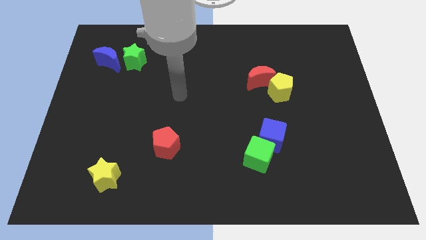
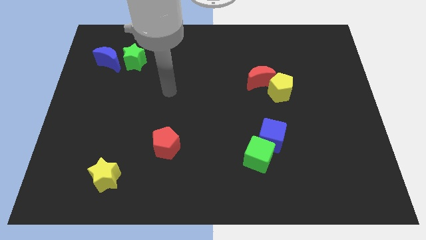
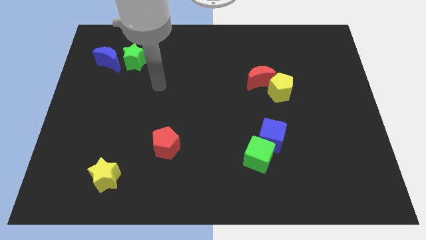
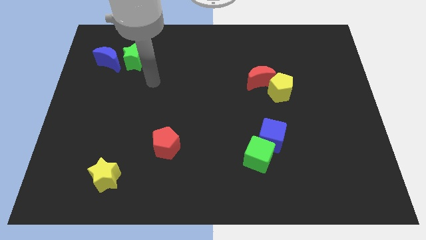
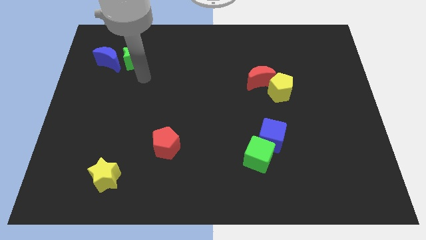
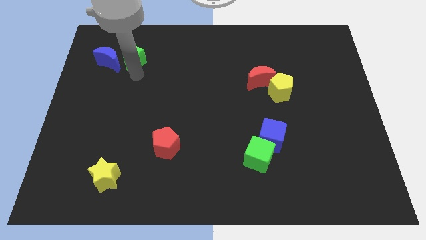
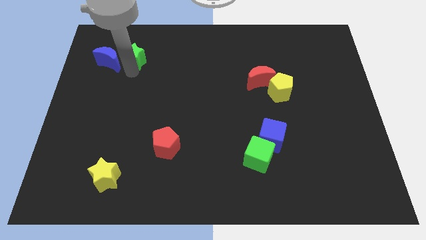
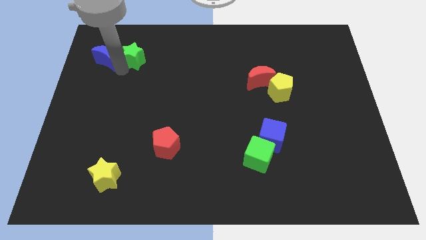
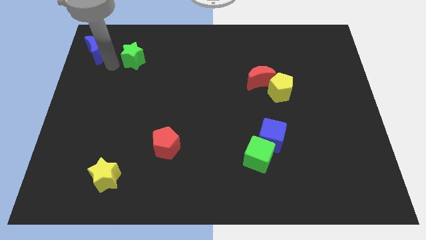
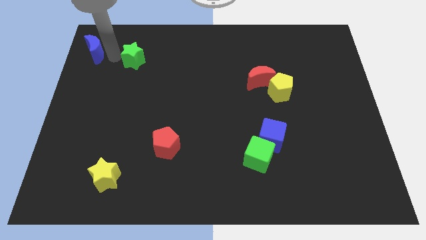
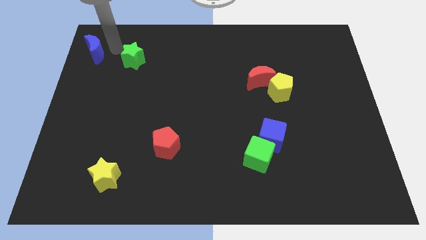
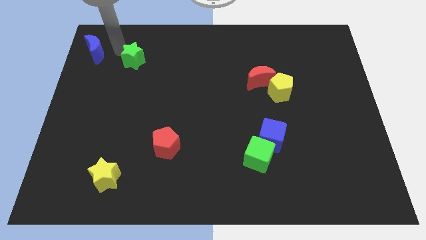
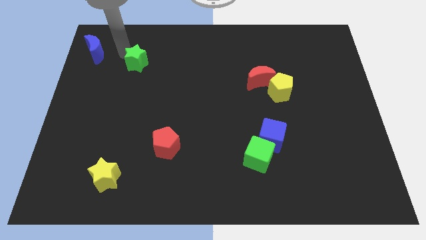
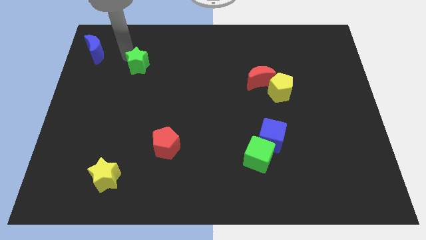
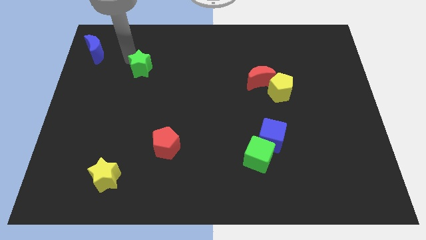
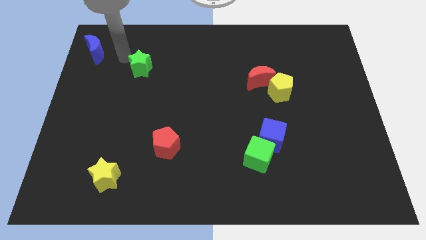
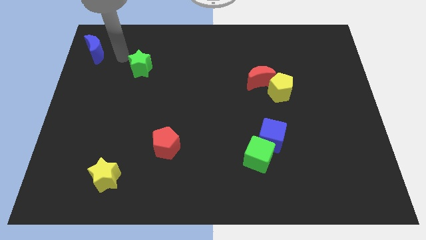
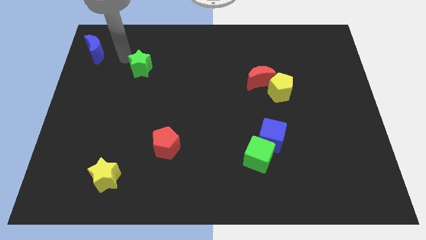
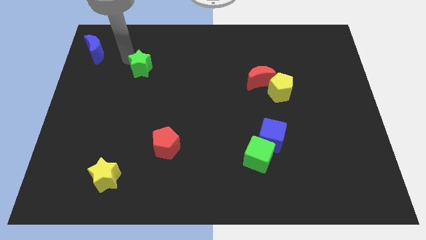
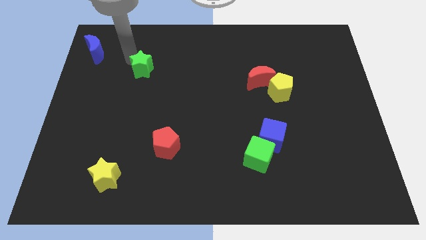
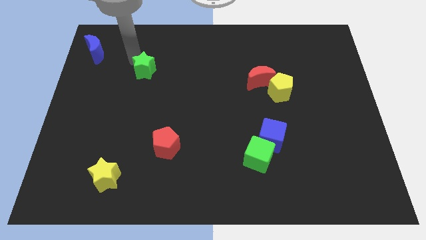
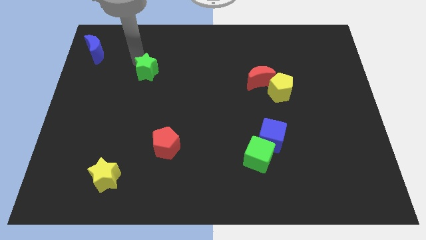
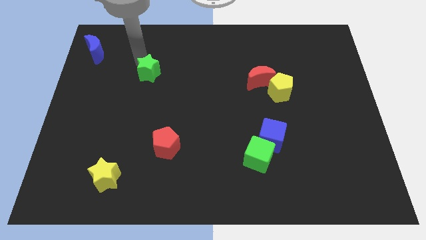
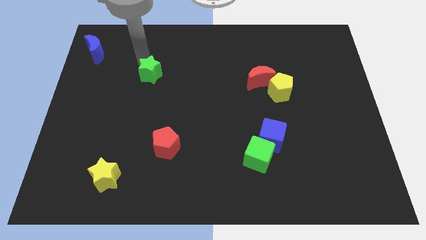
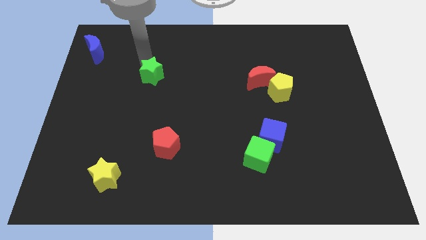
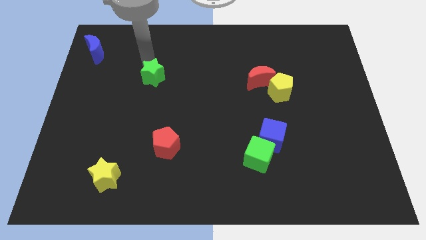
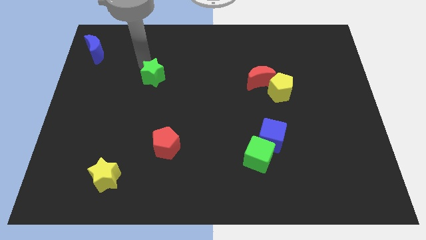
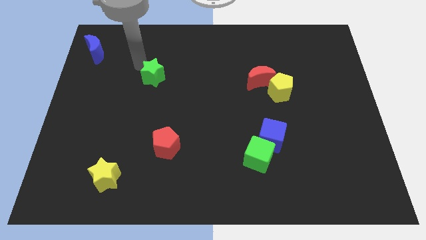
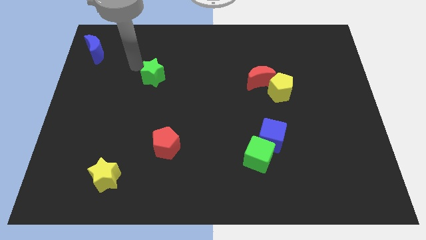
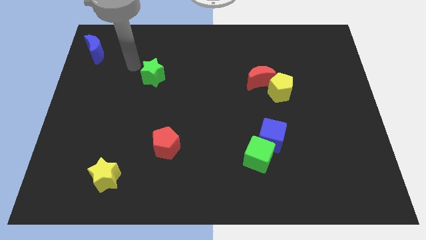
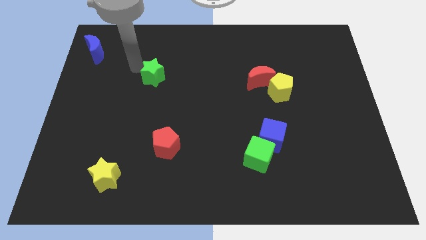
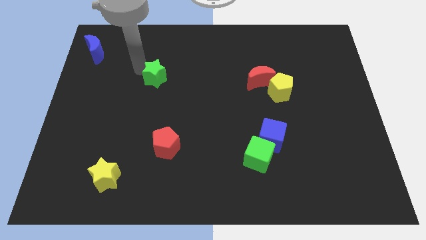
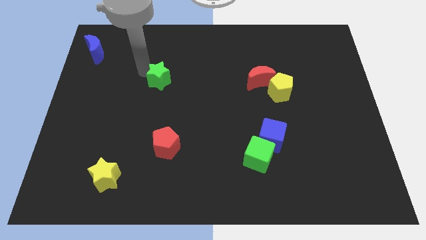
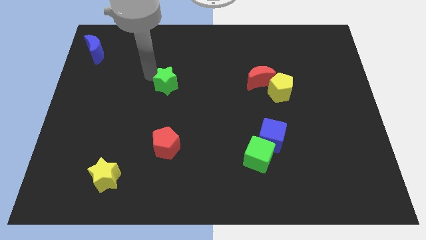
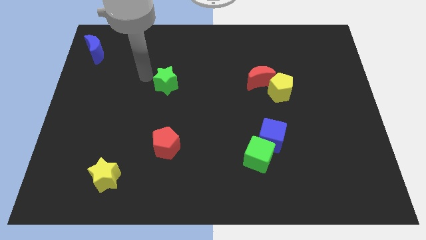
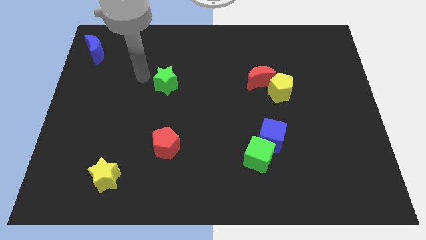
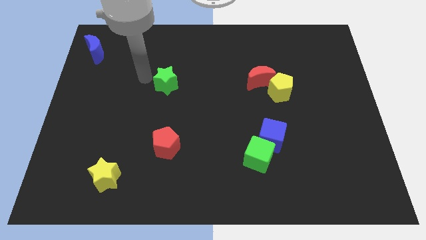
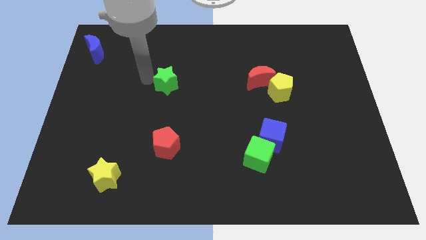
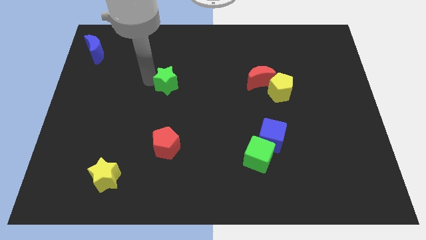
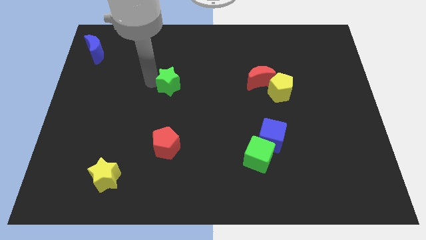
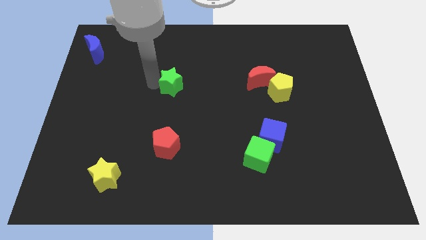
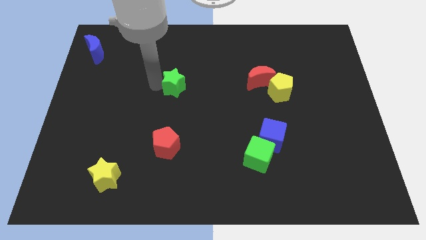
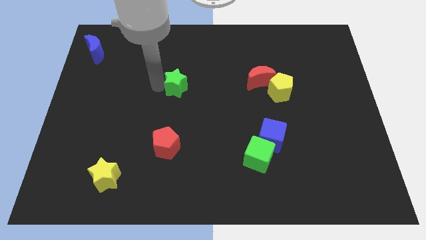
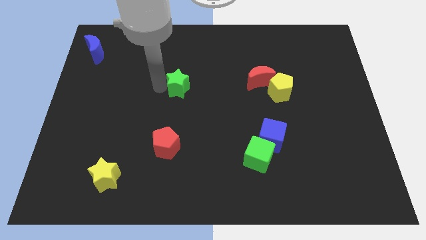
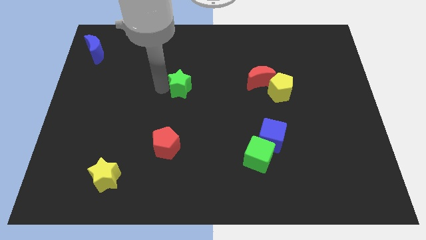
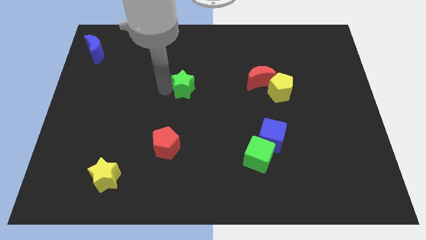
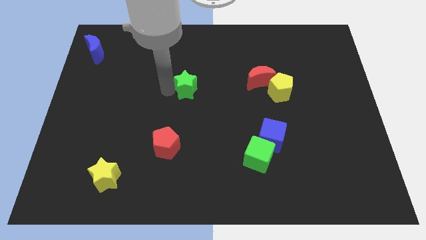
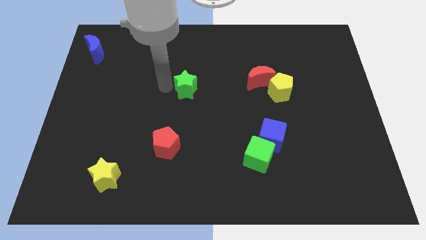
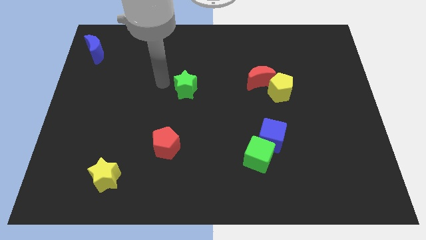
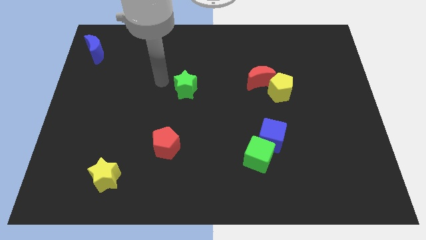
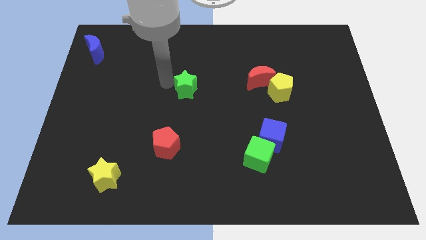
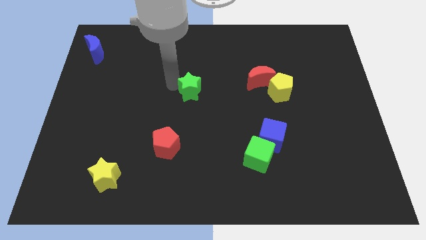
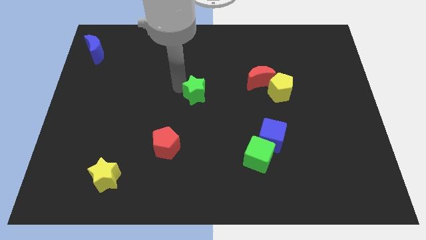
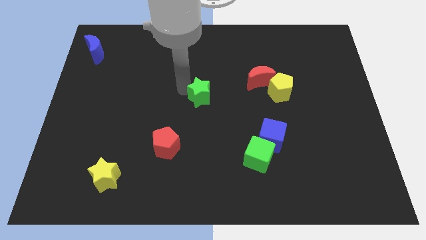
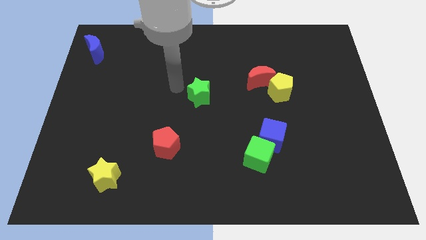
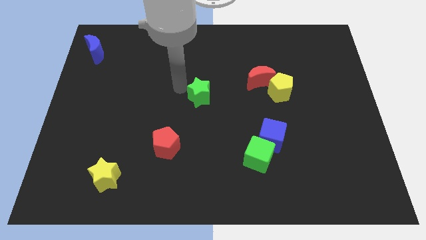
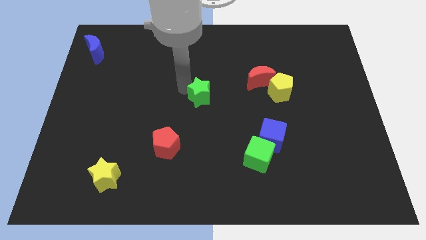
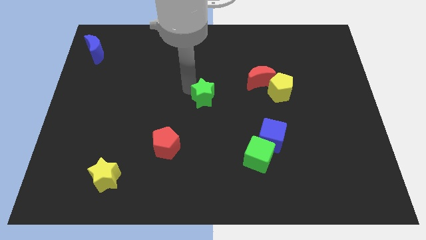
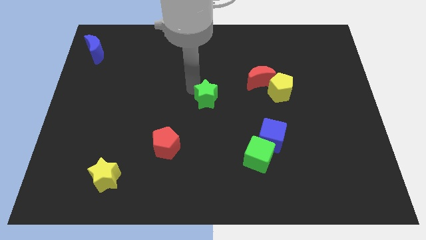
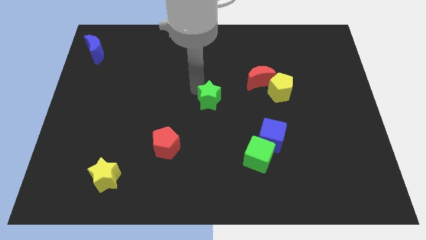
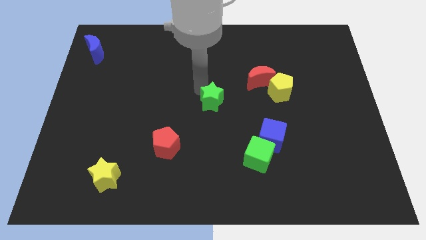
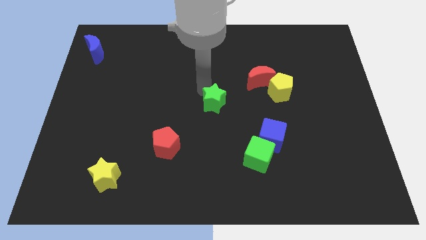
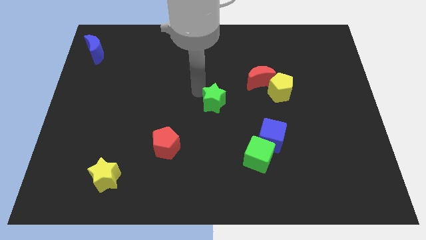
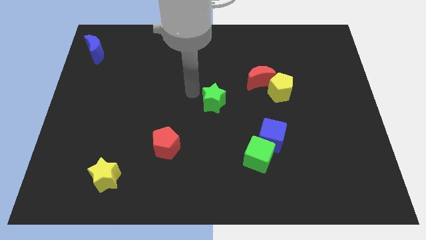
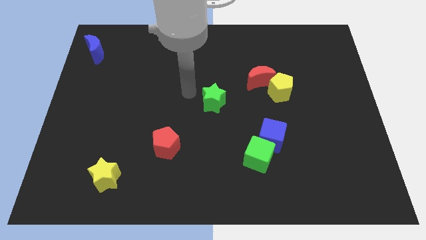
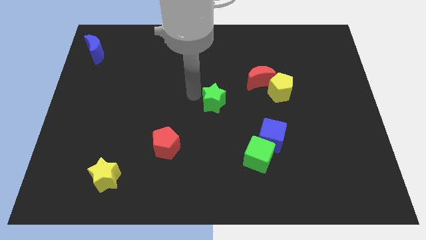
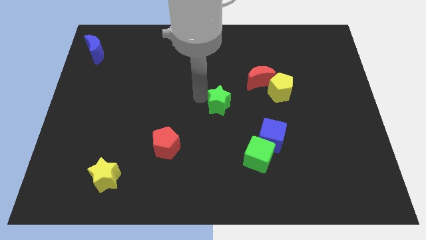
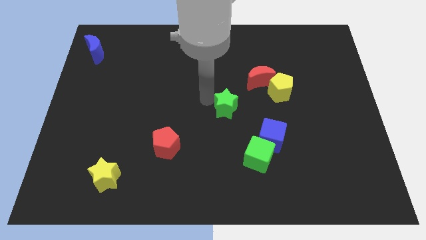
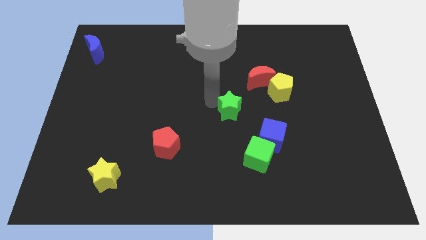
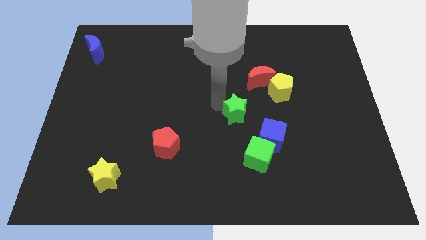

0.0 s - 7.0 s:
push the green star to the top of the green cube

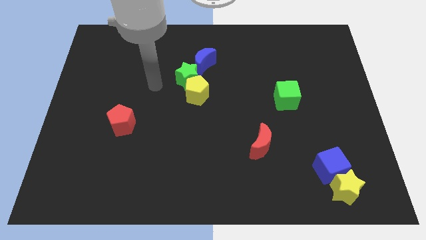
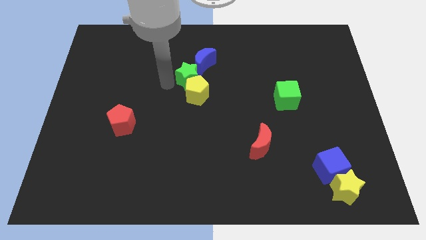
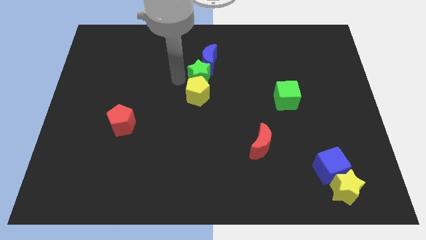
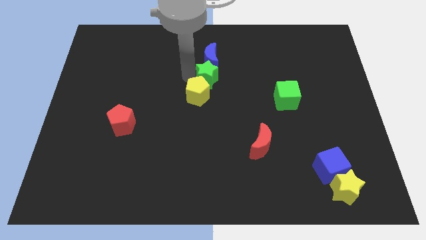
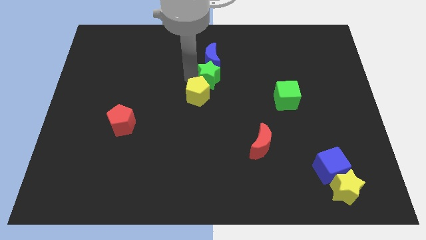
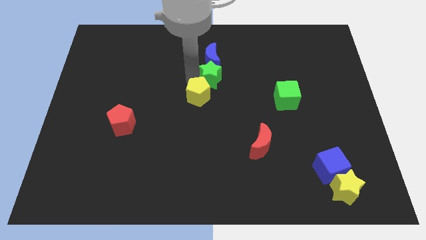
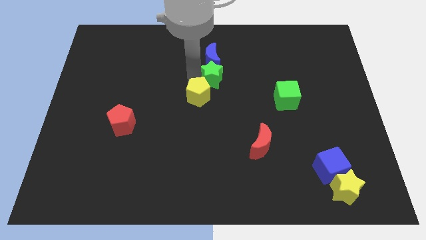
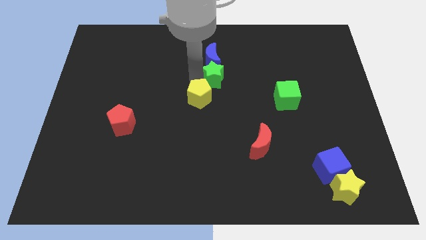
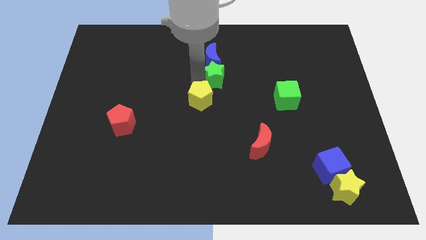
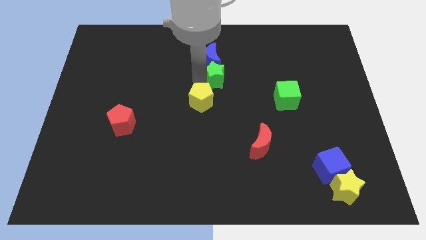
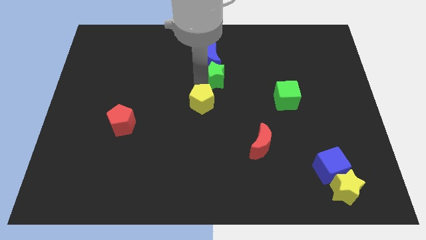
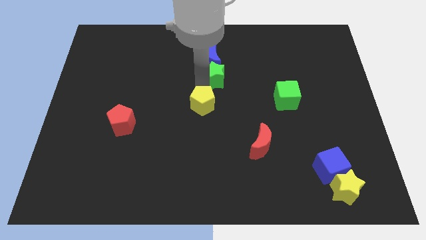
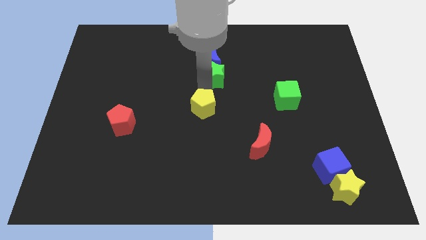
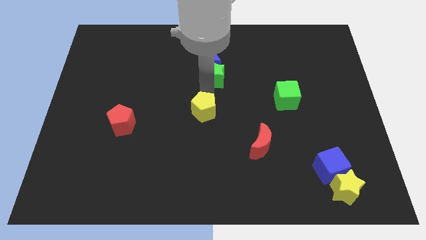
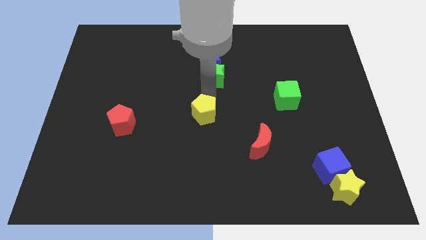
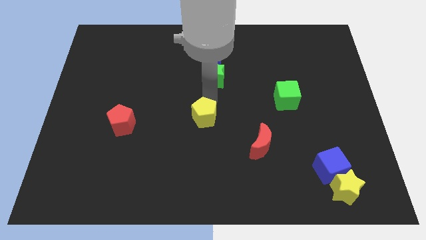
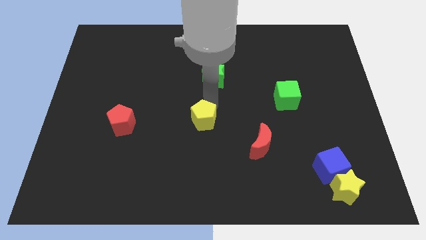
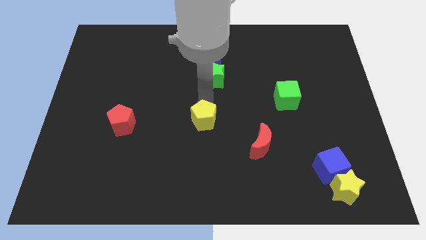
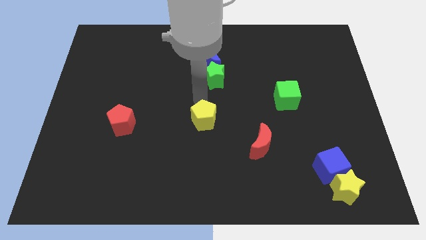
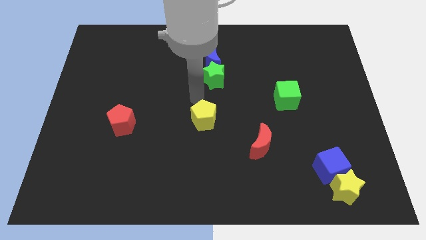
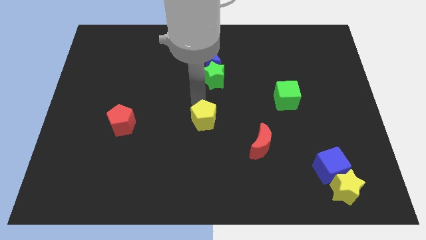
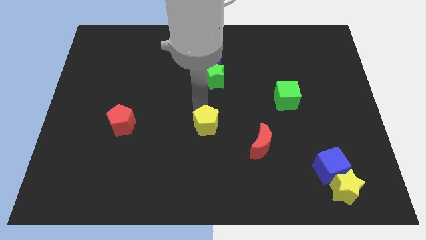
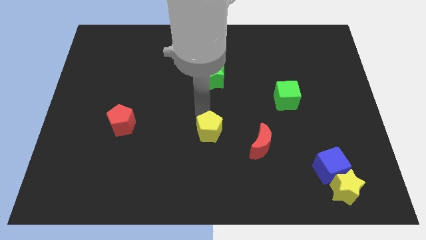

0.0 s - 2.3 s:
put the yellow pentagon left of the red moon
